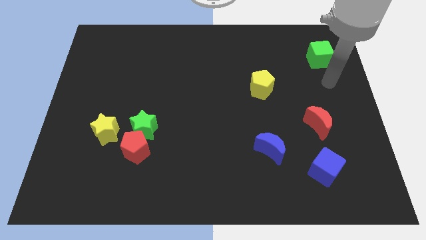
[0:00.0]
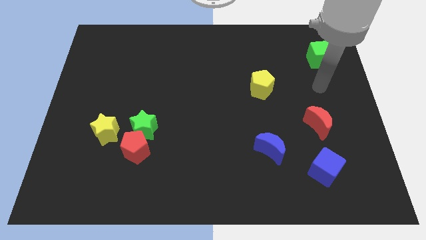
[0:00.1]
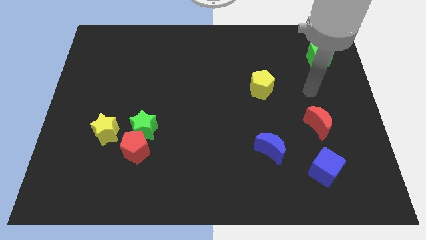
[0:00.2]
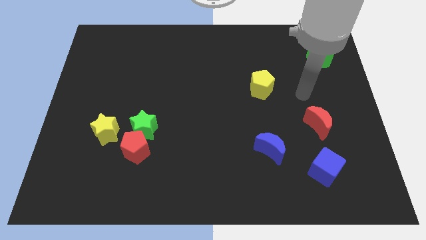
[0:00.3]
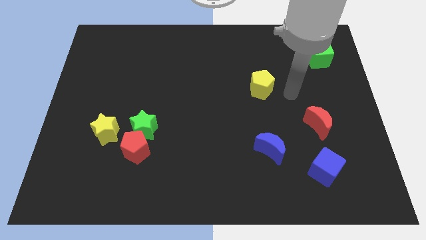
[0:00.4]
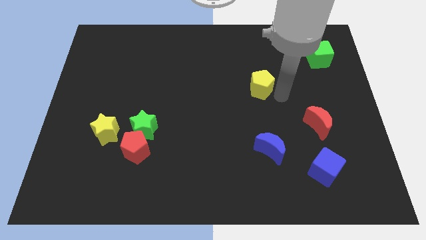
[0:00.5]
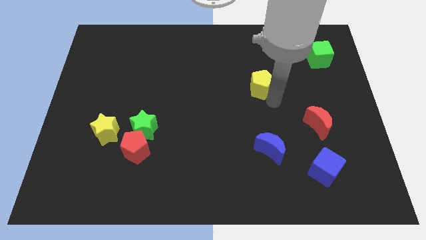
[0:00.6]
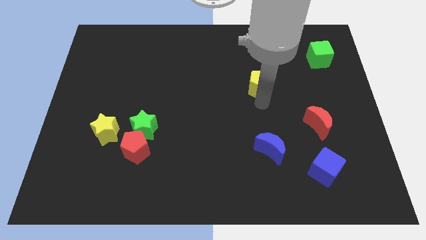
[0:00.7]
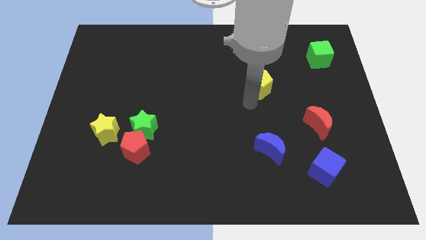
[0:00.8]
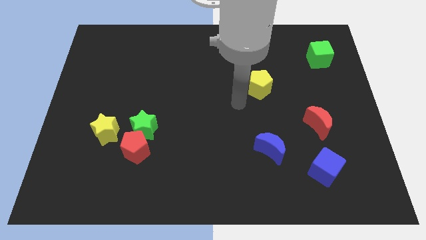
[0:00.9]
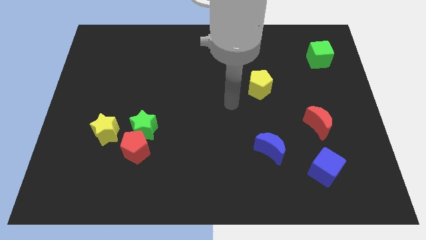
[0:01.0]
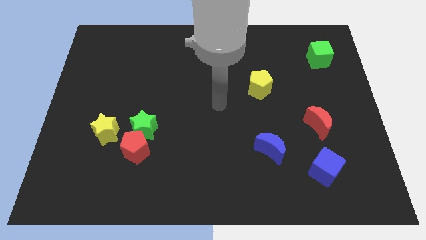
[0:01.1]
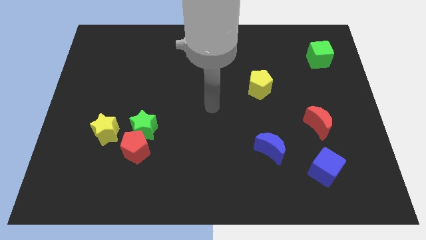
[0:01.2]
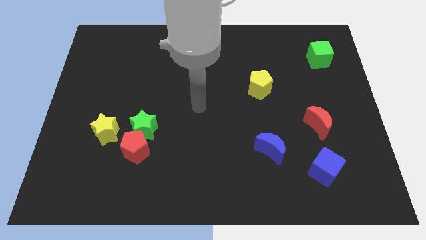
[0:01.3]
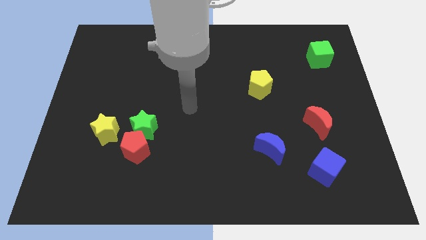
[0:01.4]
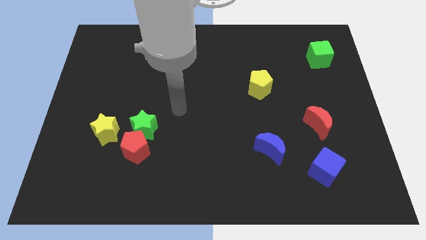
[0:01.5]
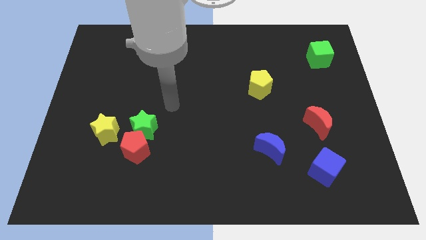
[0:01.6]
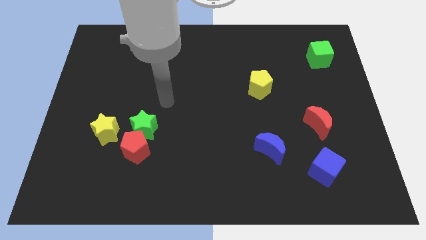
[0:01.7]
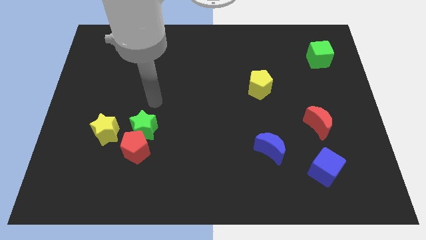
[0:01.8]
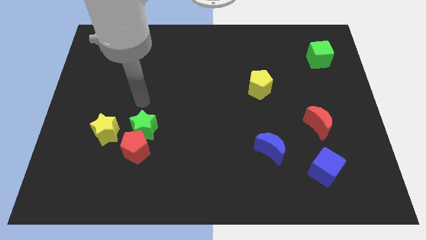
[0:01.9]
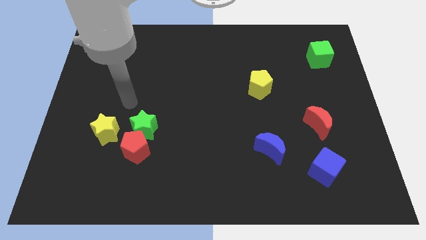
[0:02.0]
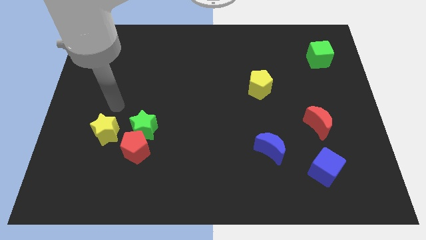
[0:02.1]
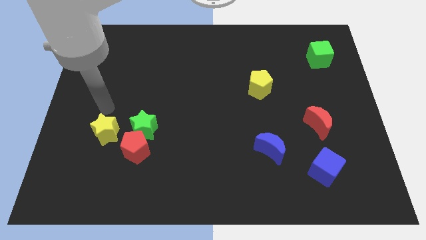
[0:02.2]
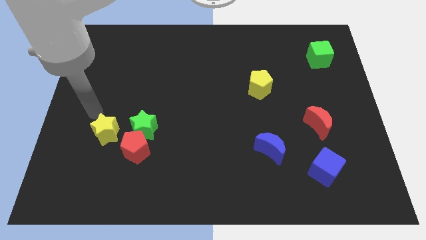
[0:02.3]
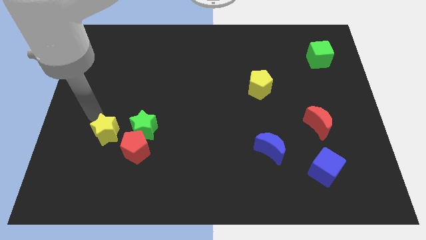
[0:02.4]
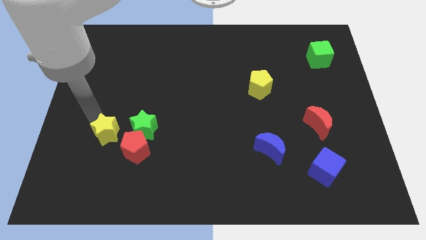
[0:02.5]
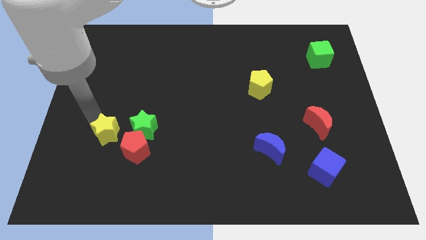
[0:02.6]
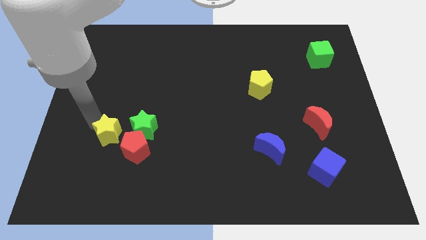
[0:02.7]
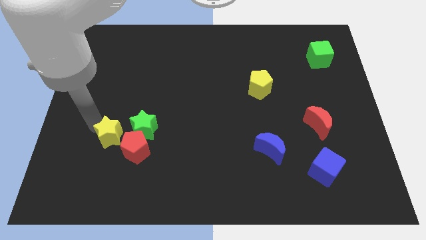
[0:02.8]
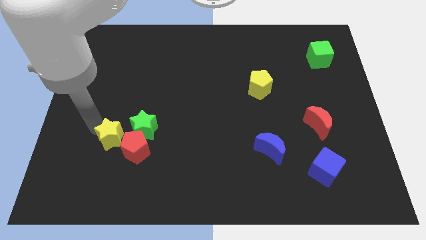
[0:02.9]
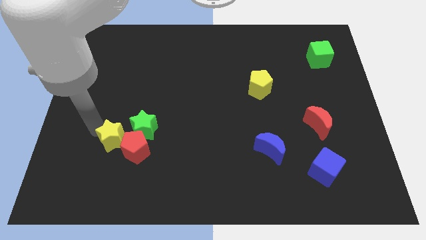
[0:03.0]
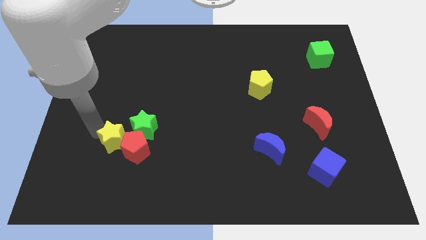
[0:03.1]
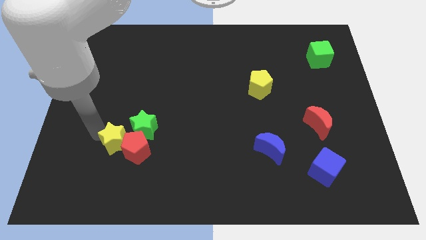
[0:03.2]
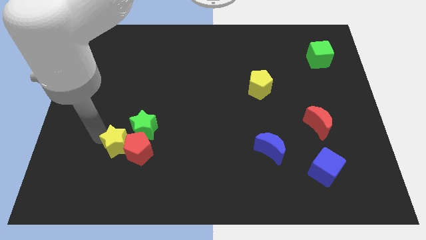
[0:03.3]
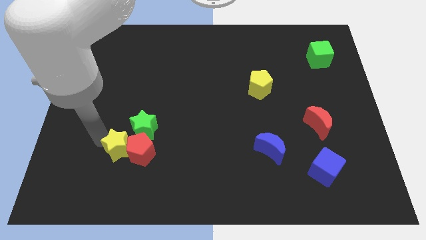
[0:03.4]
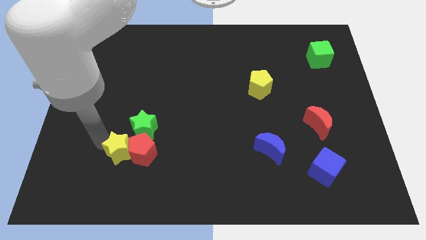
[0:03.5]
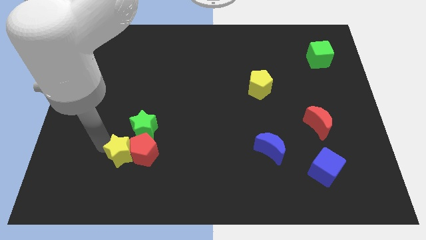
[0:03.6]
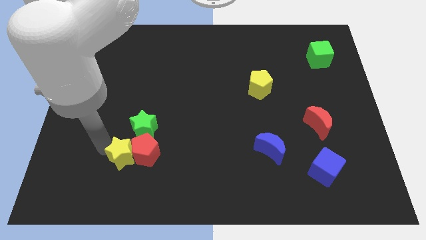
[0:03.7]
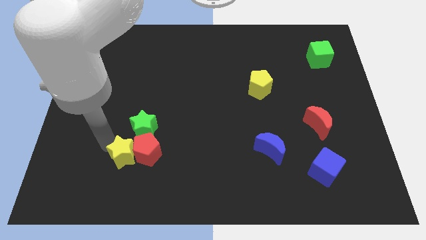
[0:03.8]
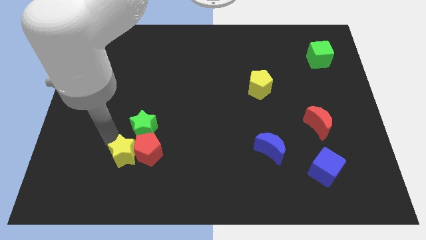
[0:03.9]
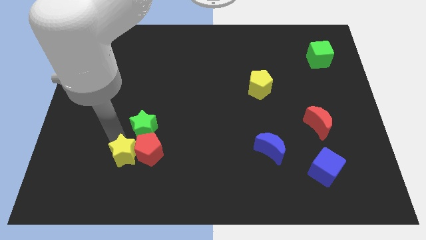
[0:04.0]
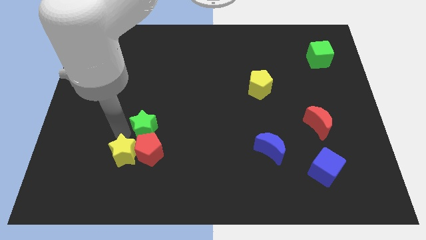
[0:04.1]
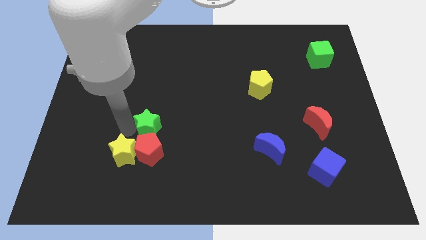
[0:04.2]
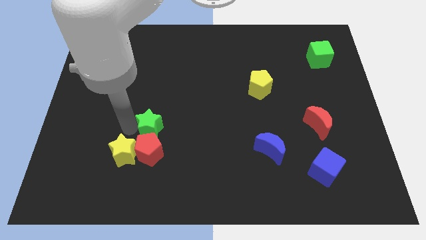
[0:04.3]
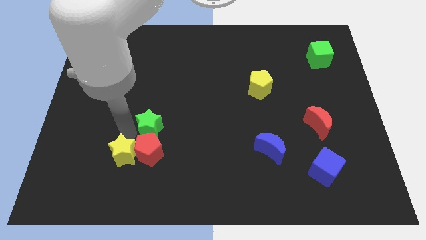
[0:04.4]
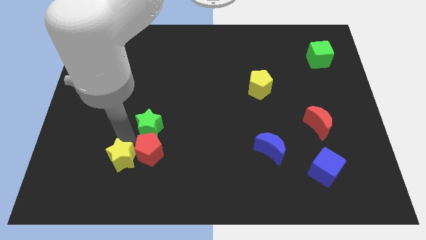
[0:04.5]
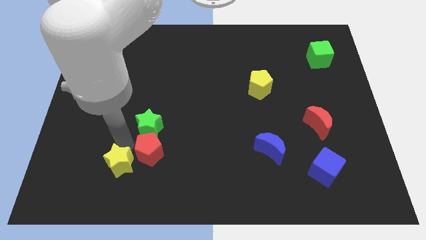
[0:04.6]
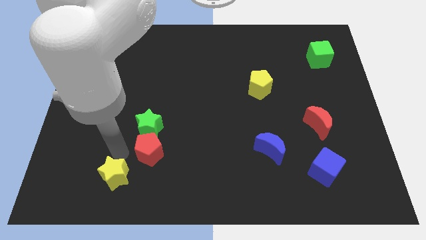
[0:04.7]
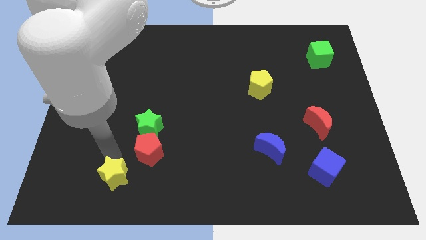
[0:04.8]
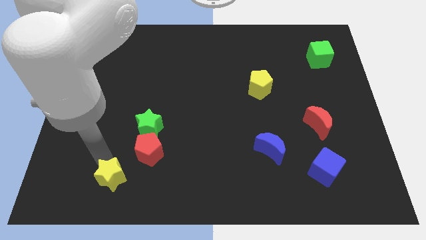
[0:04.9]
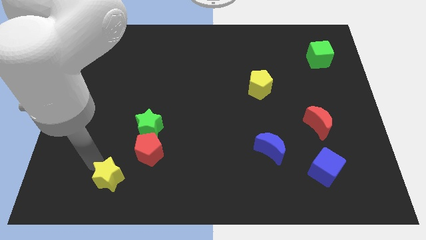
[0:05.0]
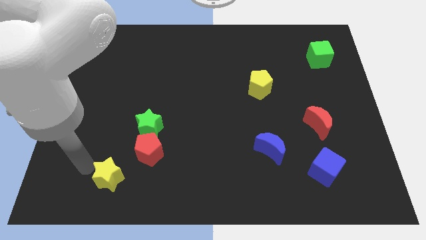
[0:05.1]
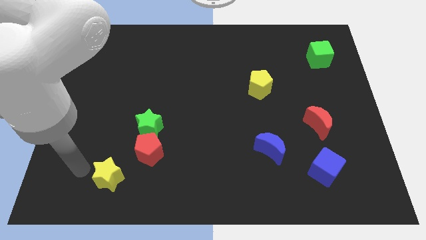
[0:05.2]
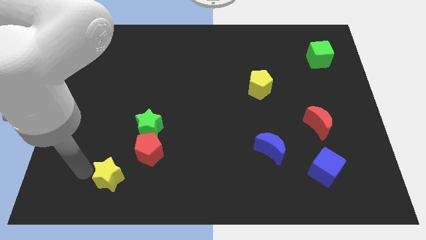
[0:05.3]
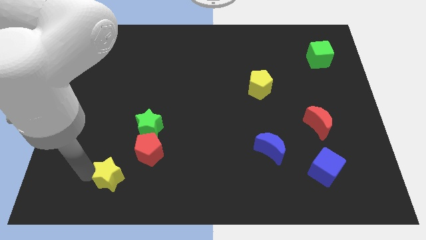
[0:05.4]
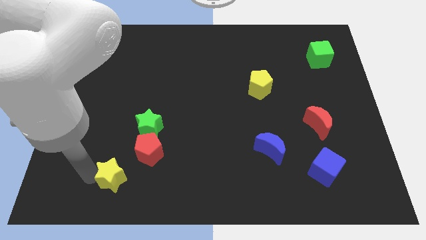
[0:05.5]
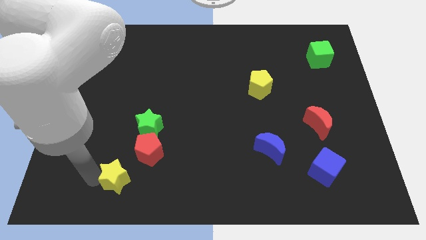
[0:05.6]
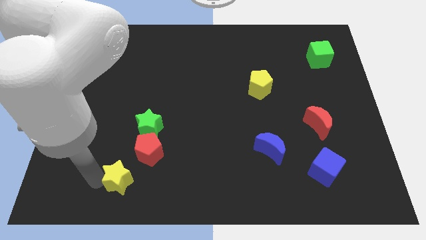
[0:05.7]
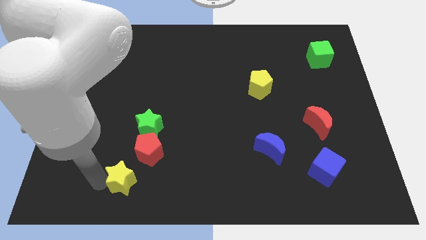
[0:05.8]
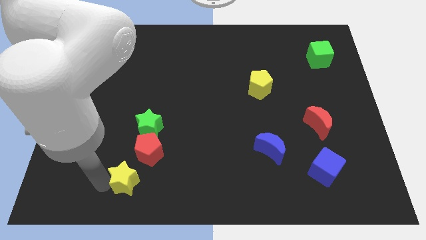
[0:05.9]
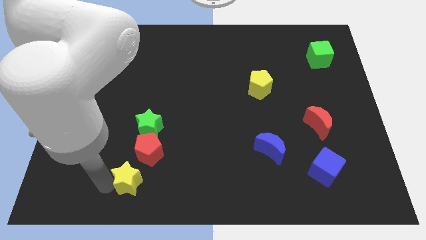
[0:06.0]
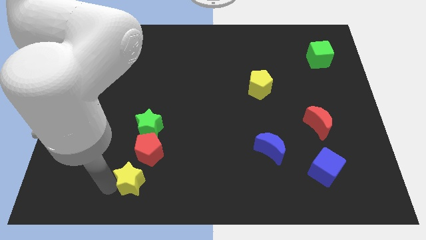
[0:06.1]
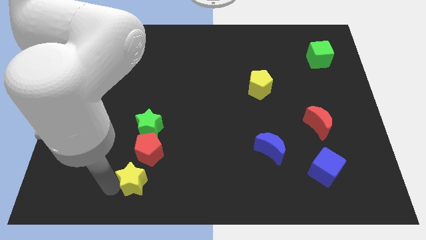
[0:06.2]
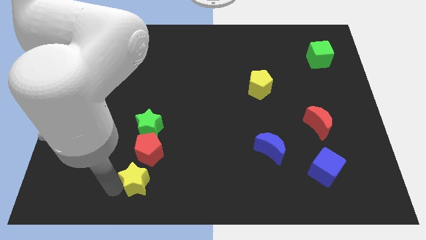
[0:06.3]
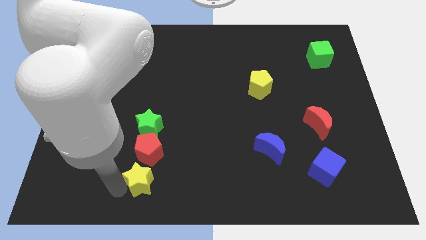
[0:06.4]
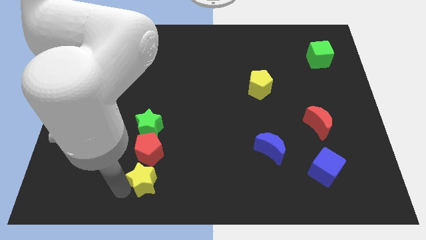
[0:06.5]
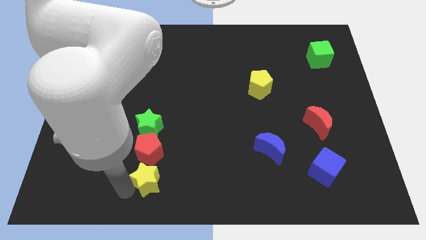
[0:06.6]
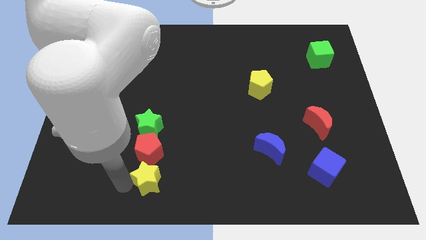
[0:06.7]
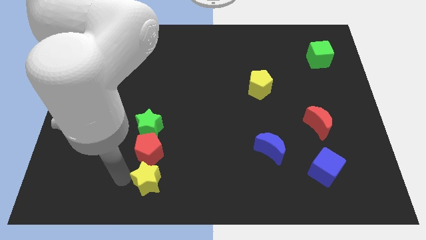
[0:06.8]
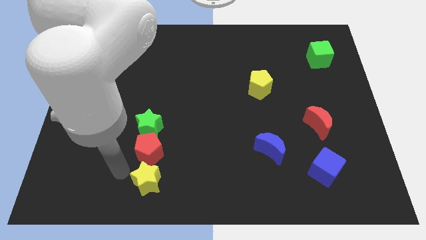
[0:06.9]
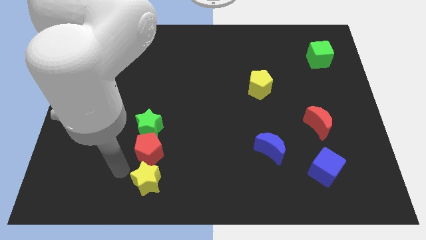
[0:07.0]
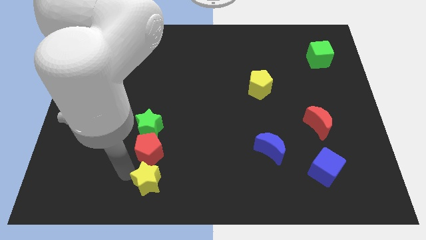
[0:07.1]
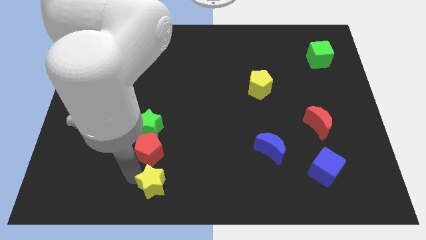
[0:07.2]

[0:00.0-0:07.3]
slide the yellow star to the bottom side
